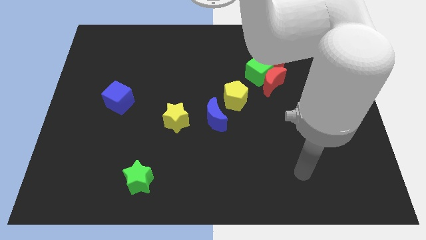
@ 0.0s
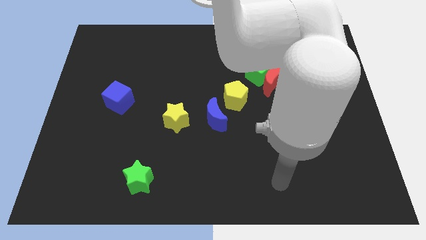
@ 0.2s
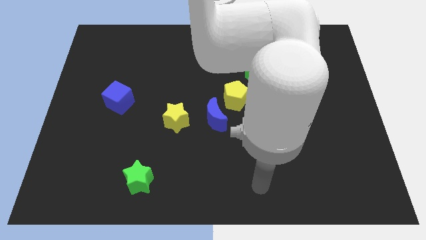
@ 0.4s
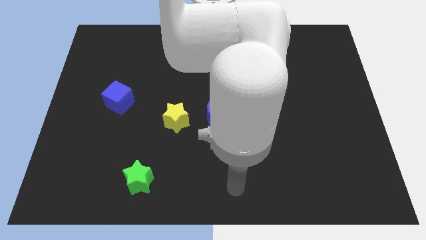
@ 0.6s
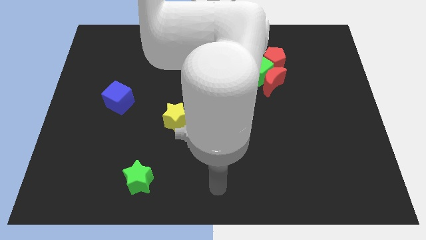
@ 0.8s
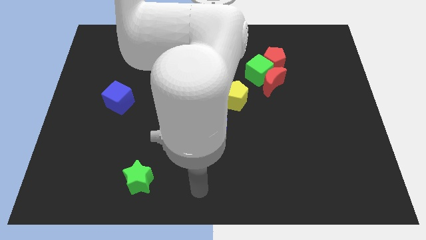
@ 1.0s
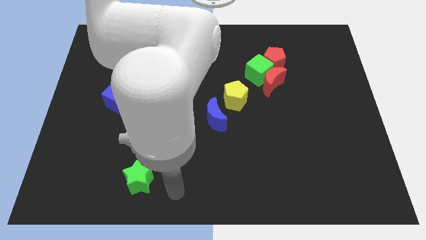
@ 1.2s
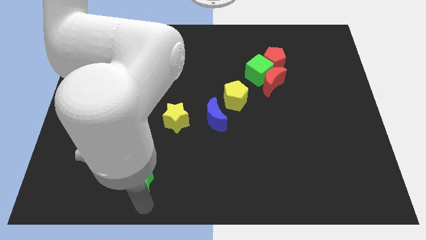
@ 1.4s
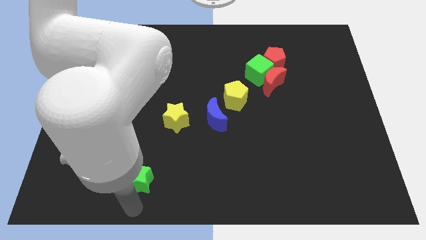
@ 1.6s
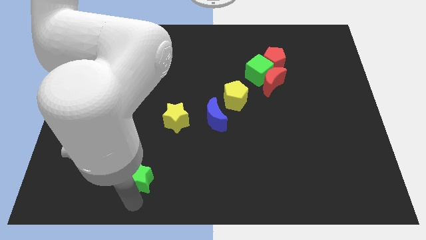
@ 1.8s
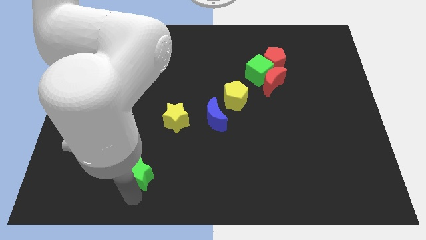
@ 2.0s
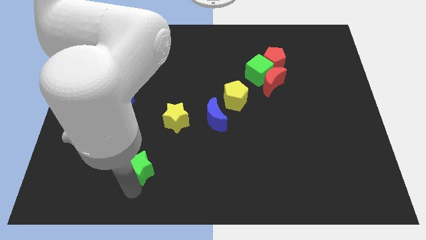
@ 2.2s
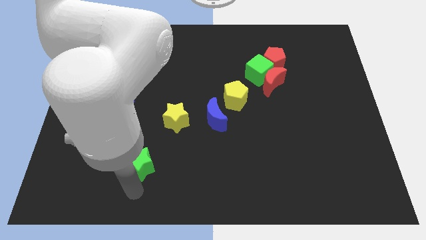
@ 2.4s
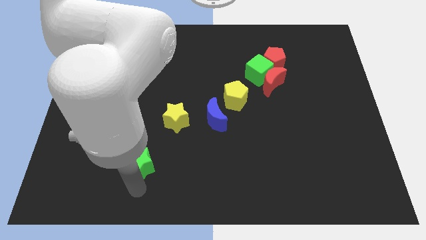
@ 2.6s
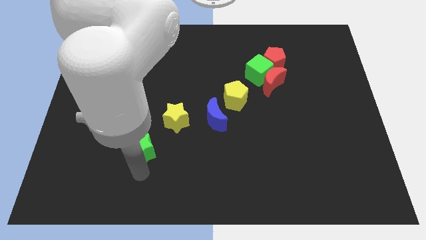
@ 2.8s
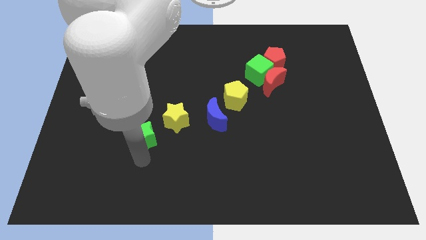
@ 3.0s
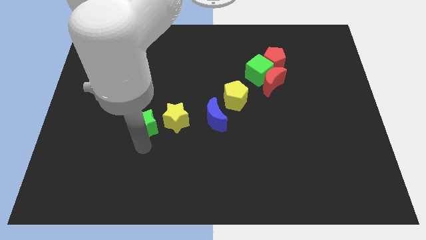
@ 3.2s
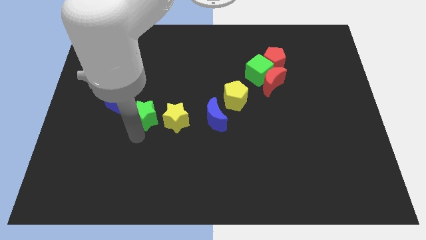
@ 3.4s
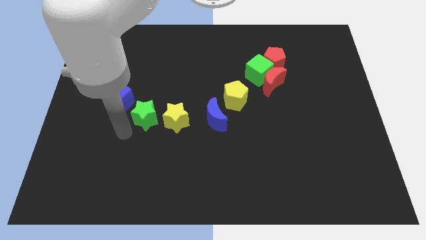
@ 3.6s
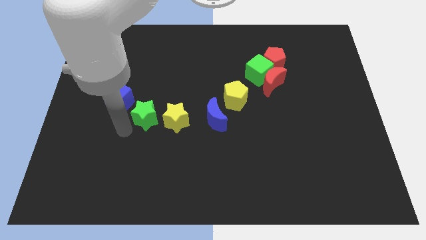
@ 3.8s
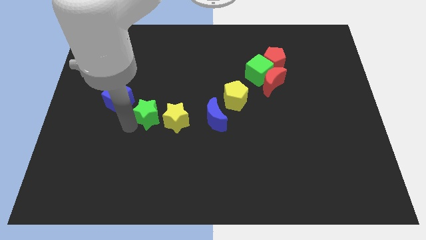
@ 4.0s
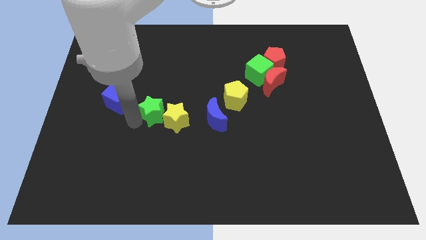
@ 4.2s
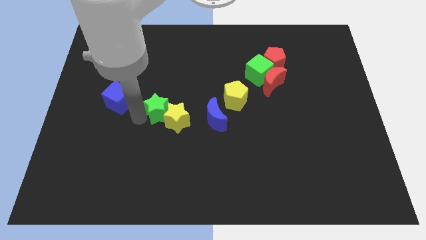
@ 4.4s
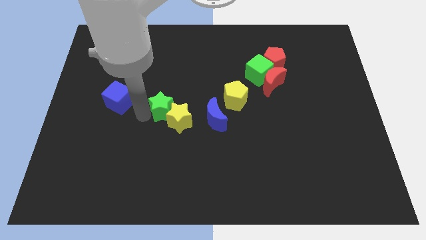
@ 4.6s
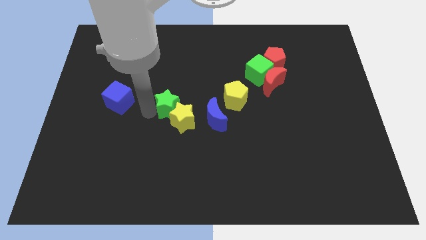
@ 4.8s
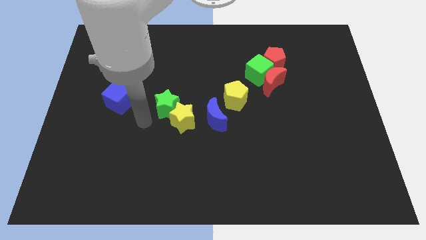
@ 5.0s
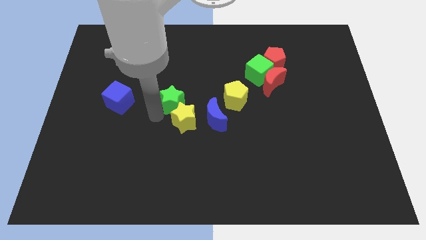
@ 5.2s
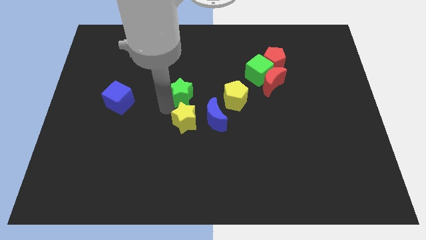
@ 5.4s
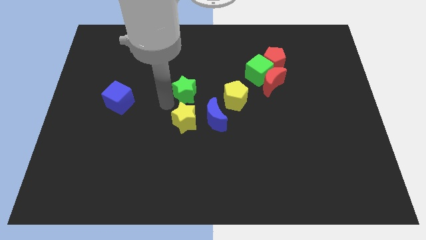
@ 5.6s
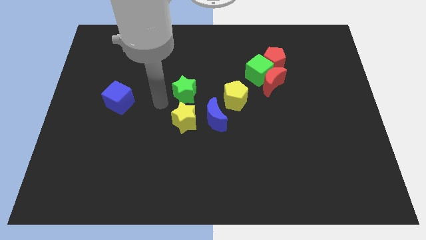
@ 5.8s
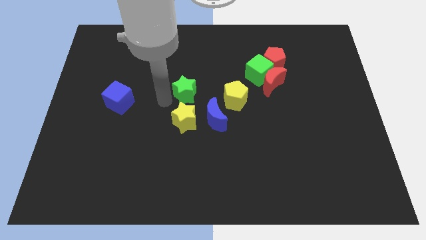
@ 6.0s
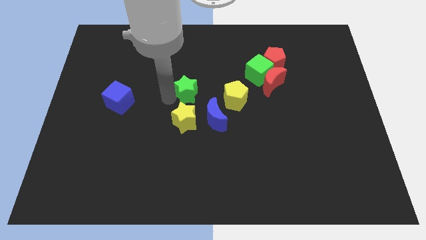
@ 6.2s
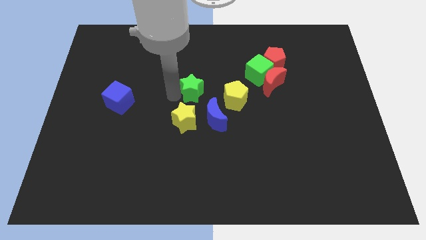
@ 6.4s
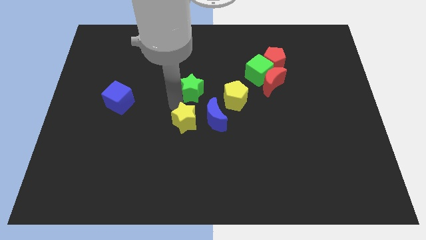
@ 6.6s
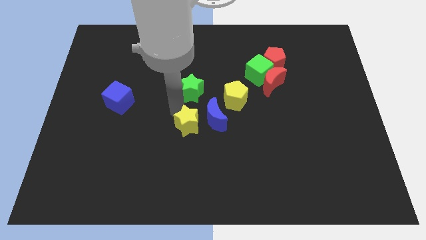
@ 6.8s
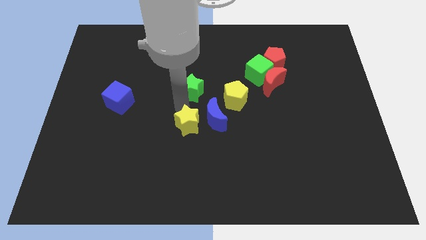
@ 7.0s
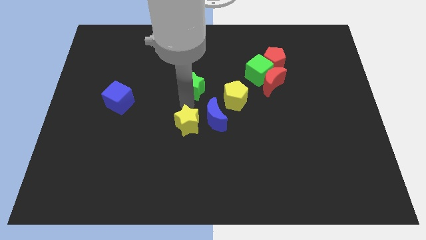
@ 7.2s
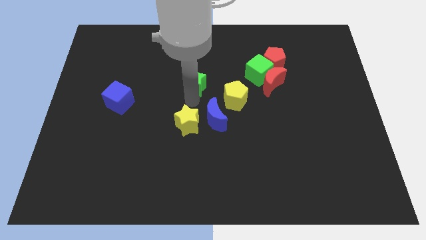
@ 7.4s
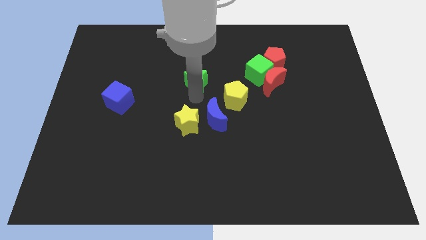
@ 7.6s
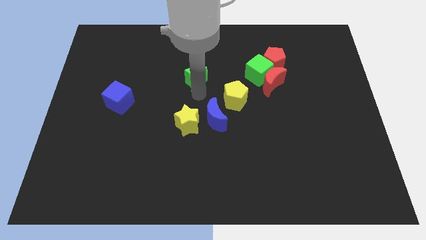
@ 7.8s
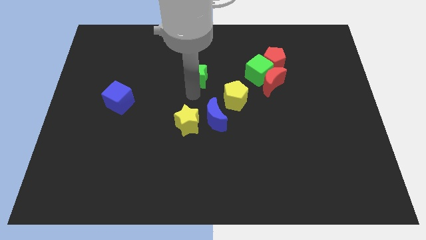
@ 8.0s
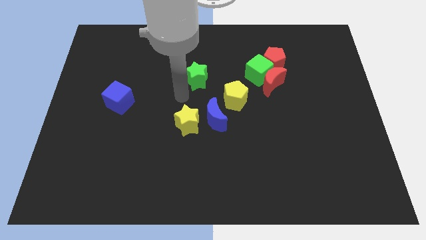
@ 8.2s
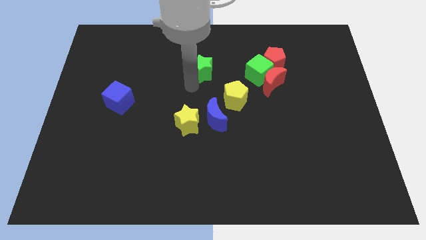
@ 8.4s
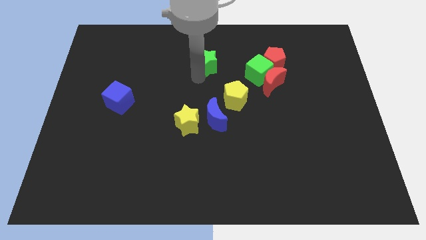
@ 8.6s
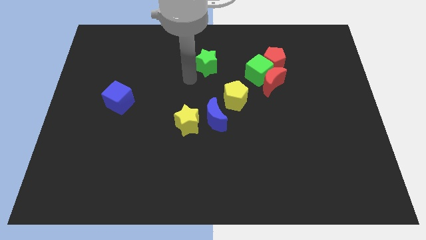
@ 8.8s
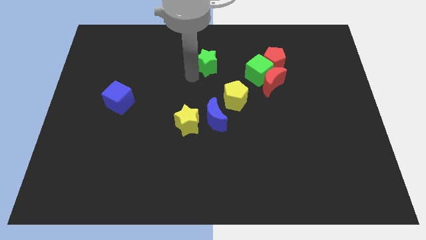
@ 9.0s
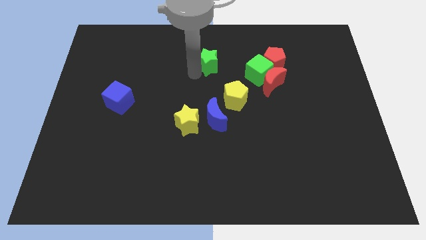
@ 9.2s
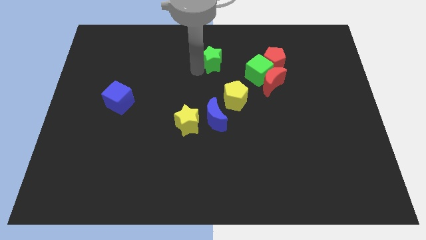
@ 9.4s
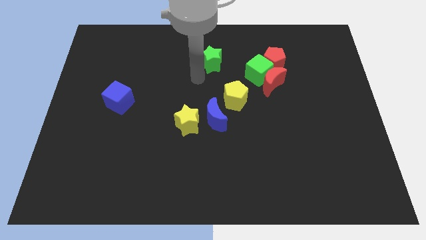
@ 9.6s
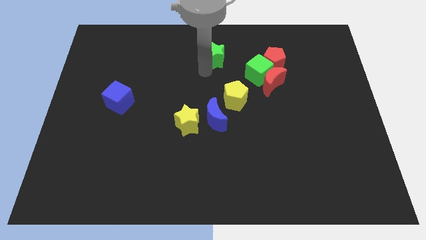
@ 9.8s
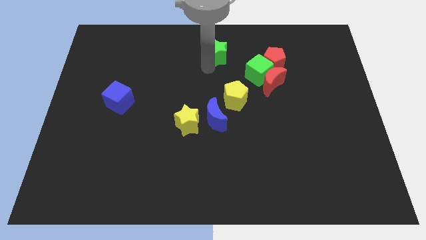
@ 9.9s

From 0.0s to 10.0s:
move the green star to the top side

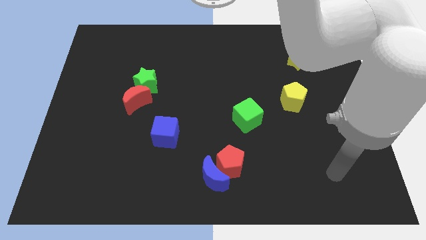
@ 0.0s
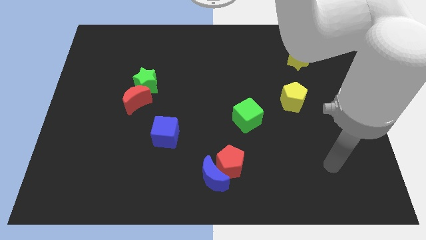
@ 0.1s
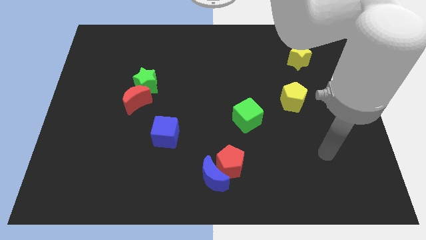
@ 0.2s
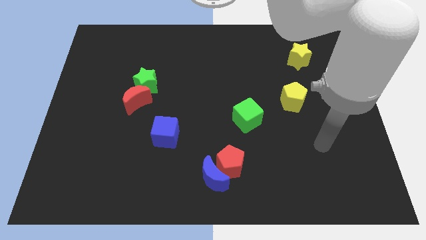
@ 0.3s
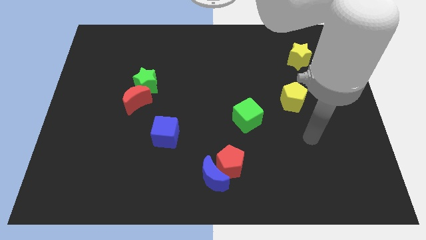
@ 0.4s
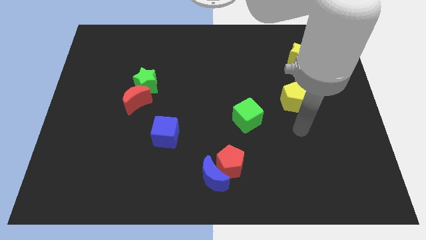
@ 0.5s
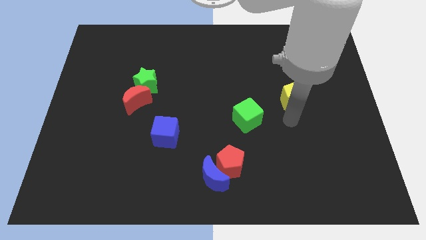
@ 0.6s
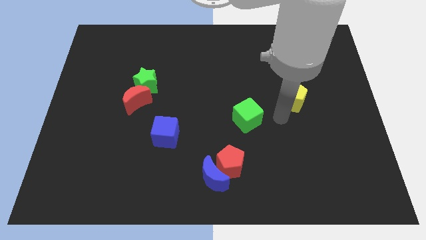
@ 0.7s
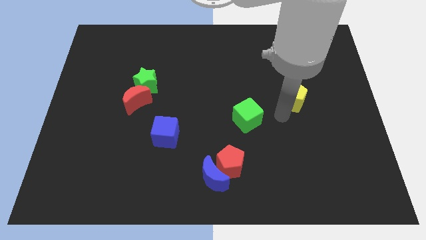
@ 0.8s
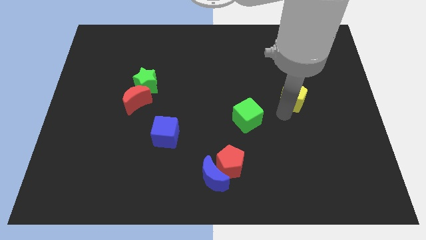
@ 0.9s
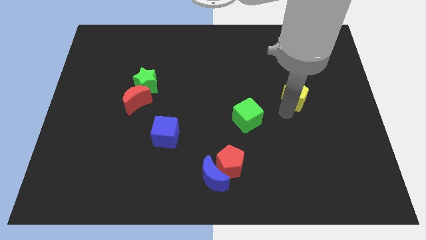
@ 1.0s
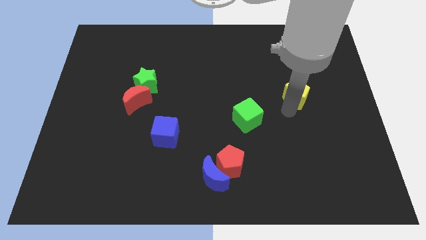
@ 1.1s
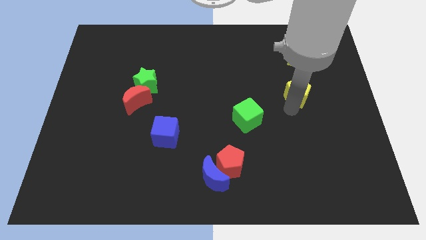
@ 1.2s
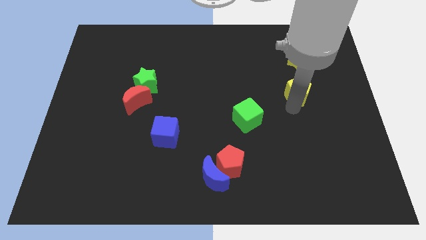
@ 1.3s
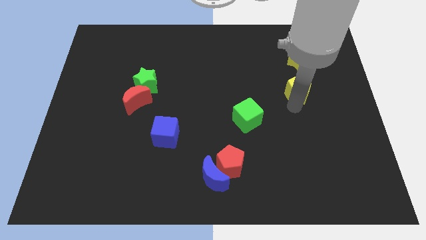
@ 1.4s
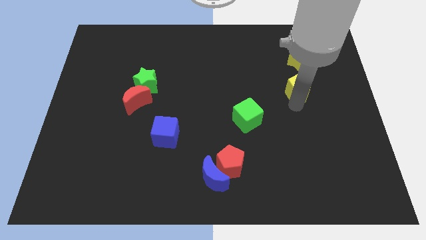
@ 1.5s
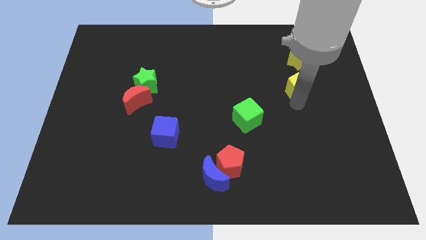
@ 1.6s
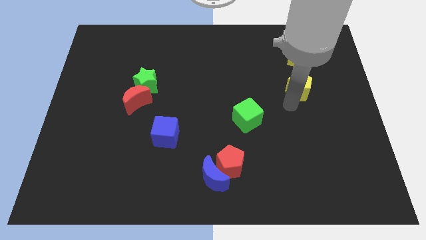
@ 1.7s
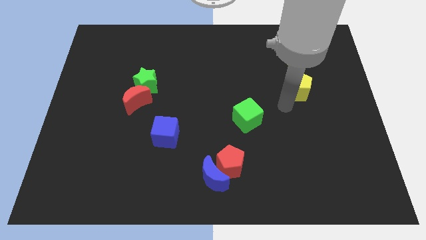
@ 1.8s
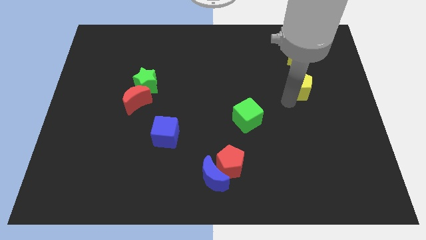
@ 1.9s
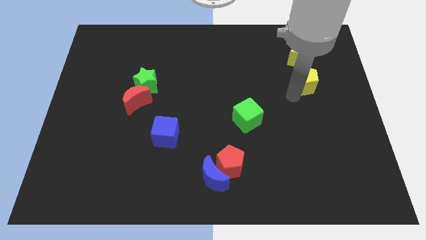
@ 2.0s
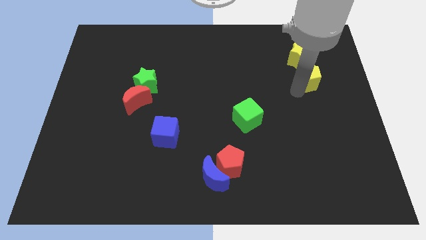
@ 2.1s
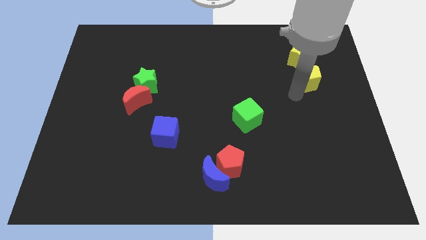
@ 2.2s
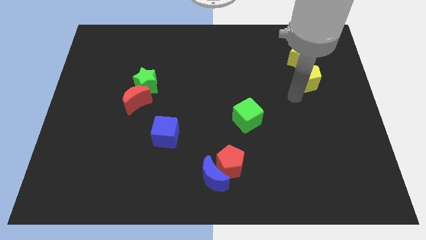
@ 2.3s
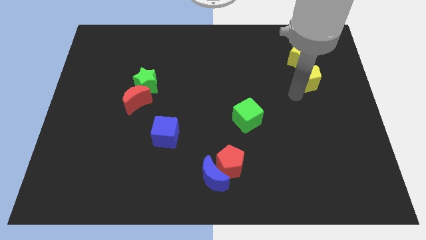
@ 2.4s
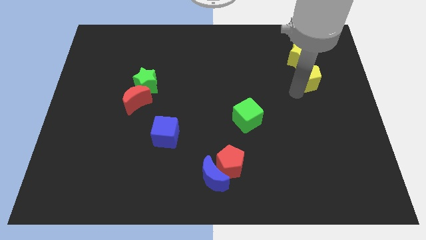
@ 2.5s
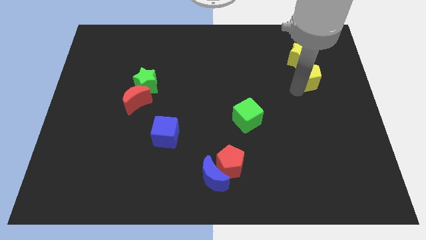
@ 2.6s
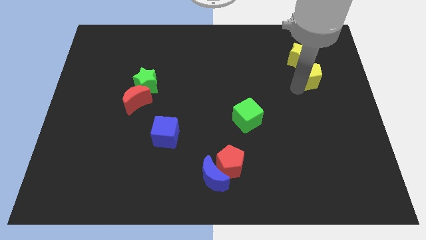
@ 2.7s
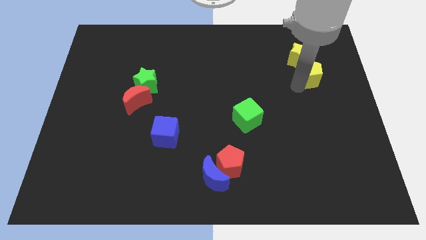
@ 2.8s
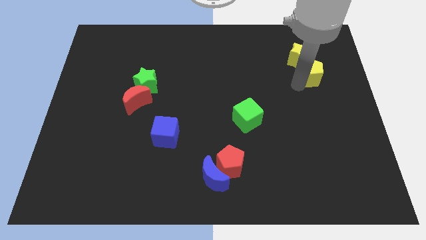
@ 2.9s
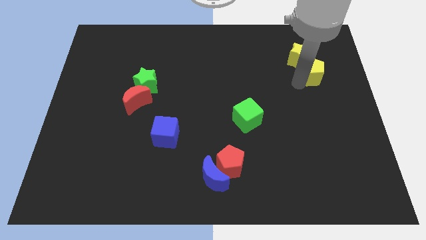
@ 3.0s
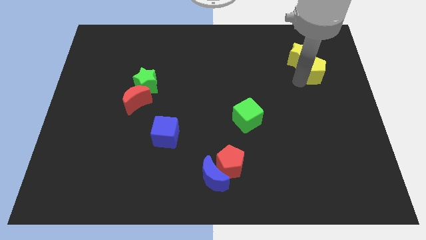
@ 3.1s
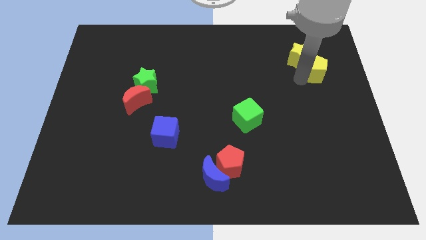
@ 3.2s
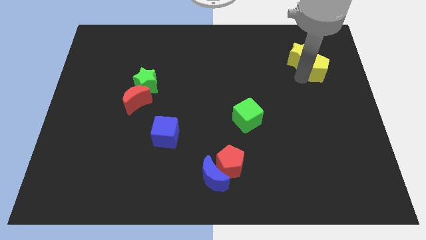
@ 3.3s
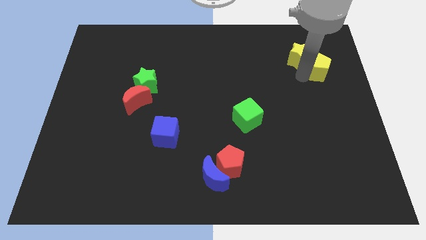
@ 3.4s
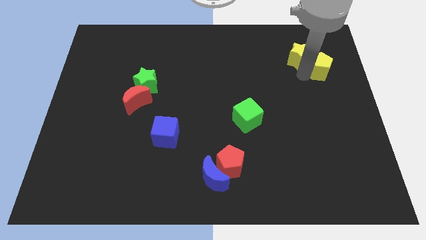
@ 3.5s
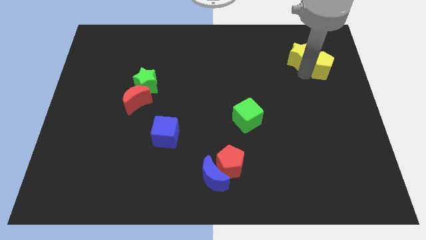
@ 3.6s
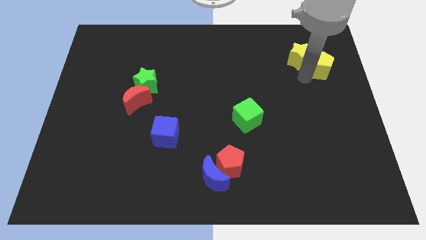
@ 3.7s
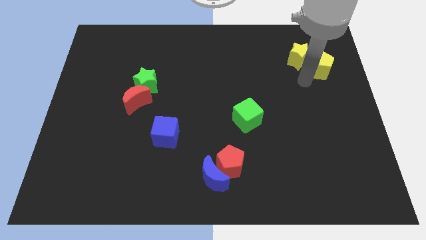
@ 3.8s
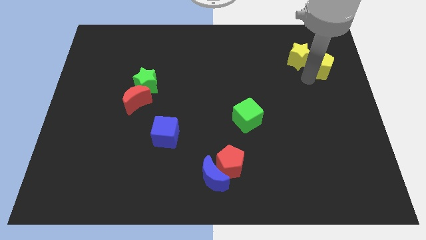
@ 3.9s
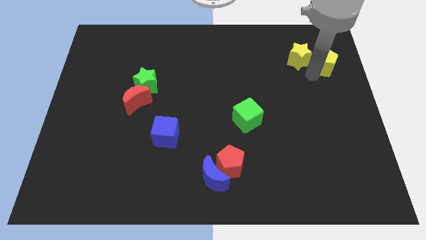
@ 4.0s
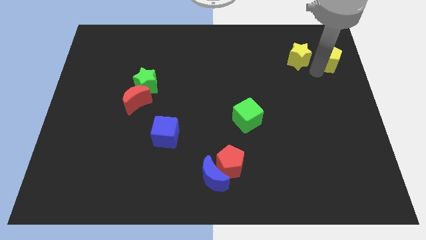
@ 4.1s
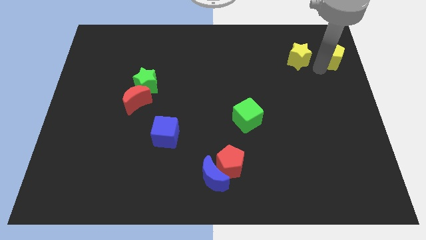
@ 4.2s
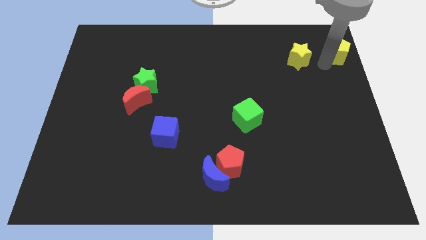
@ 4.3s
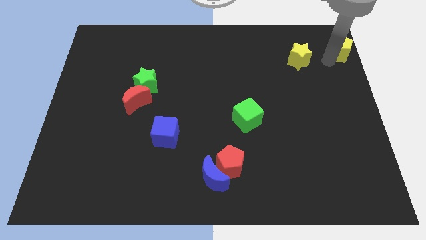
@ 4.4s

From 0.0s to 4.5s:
put the yellow pentagon to the upper right corner
